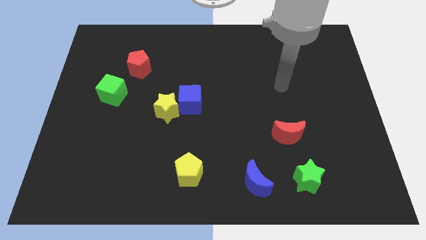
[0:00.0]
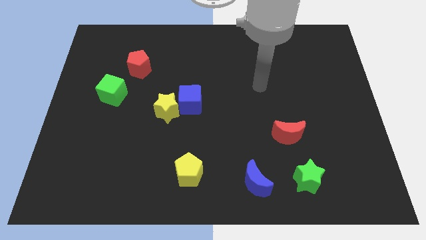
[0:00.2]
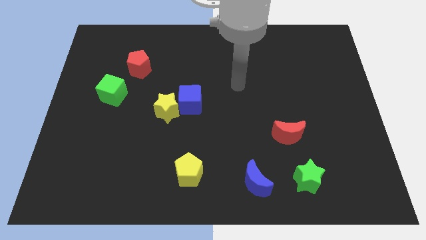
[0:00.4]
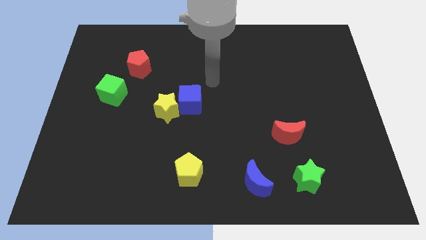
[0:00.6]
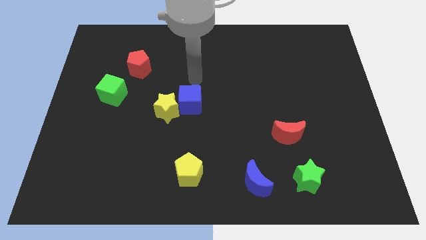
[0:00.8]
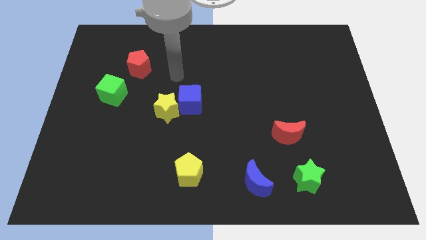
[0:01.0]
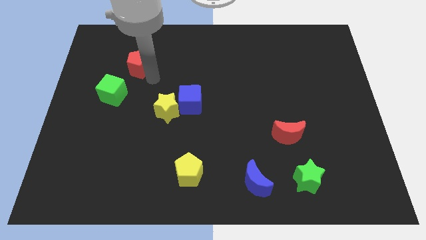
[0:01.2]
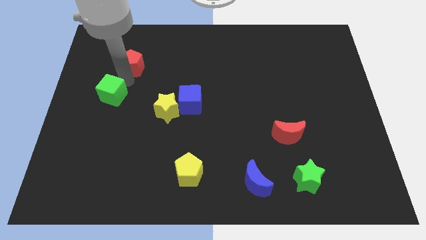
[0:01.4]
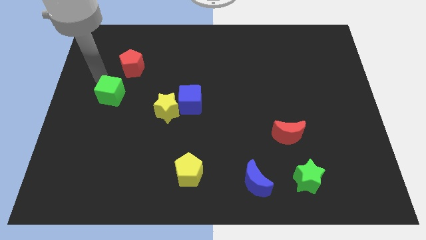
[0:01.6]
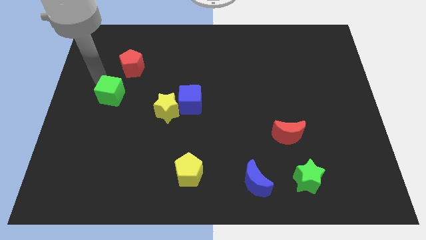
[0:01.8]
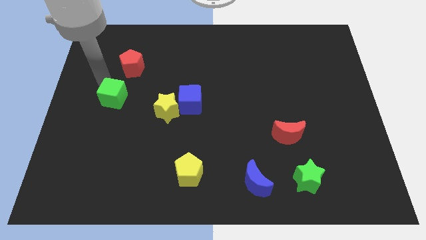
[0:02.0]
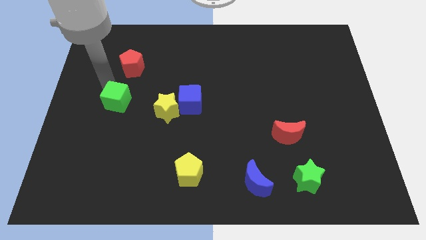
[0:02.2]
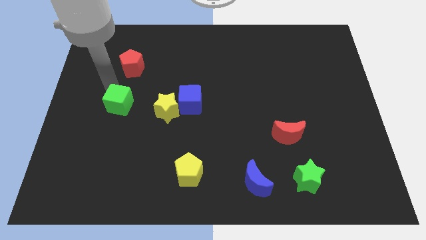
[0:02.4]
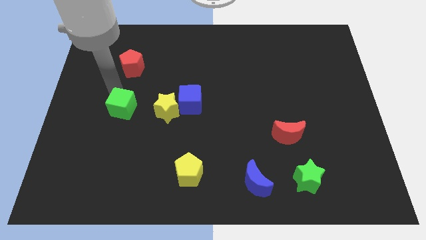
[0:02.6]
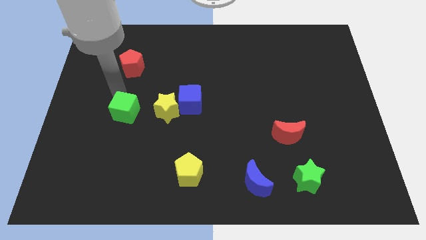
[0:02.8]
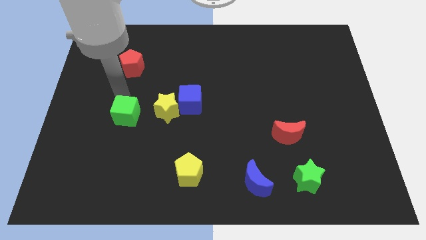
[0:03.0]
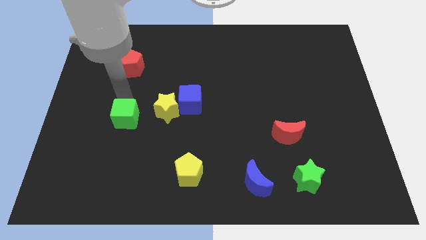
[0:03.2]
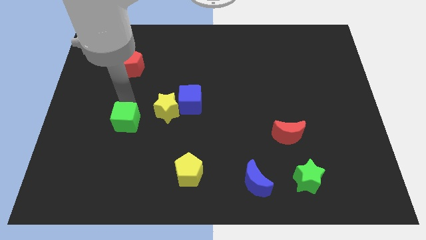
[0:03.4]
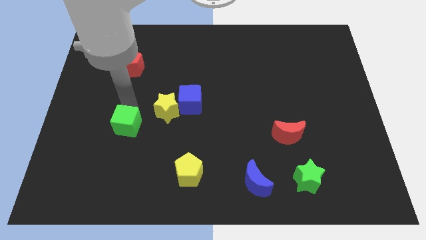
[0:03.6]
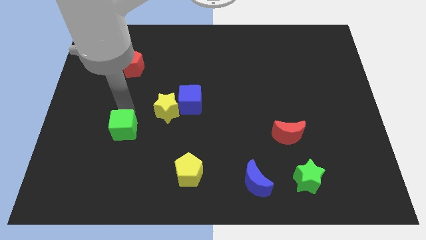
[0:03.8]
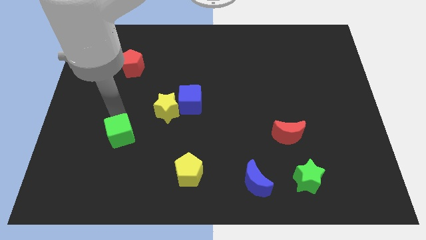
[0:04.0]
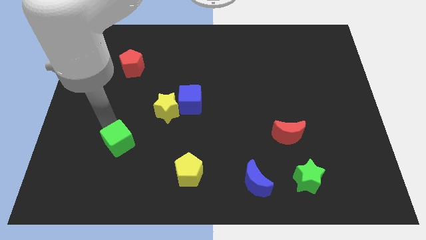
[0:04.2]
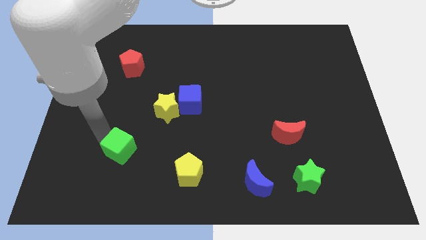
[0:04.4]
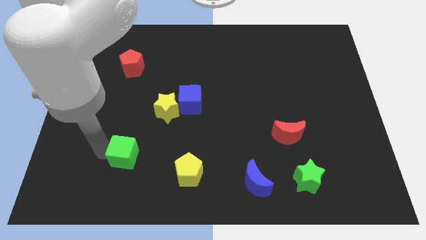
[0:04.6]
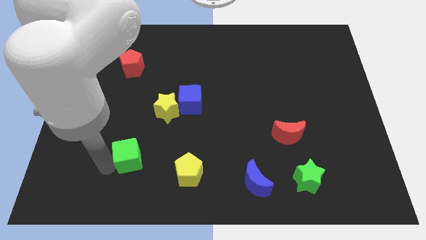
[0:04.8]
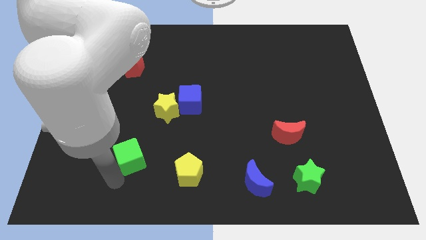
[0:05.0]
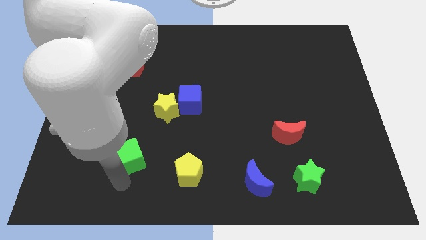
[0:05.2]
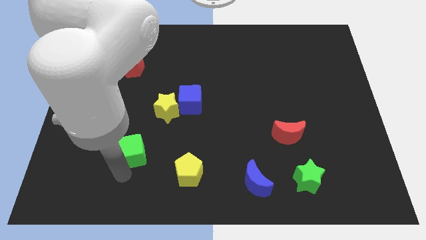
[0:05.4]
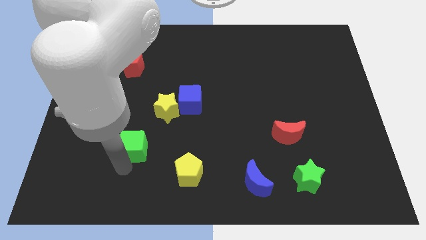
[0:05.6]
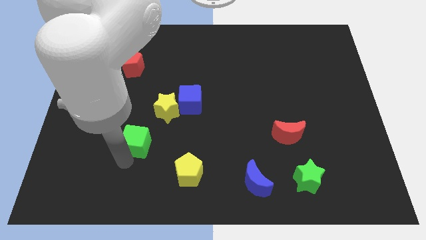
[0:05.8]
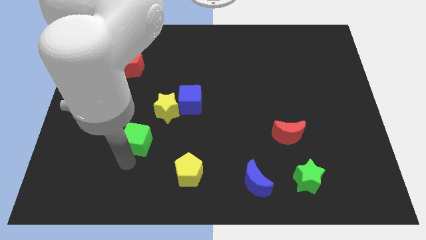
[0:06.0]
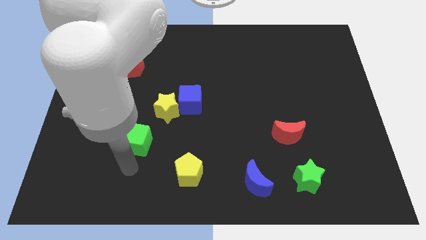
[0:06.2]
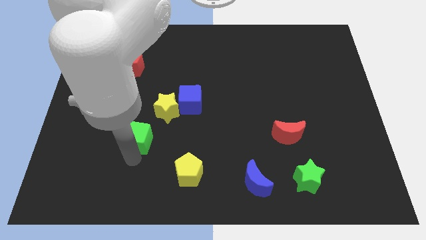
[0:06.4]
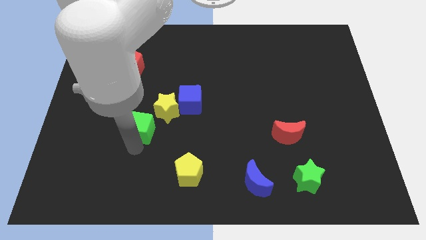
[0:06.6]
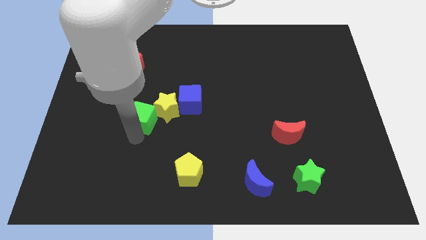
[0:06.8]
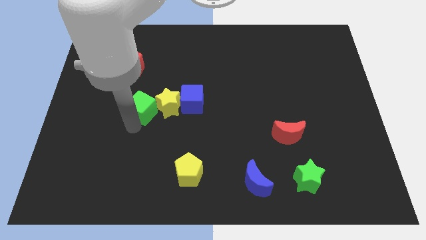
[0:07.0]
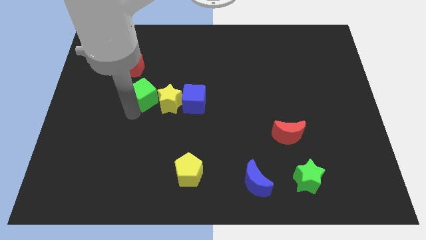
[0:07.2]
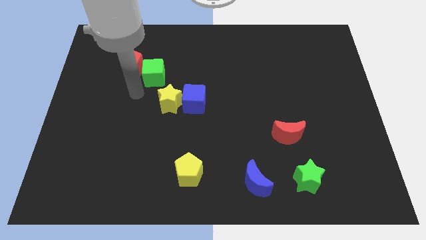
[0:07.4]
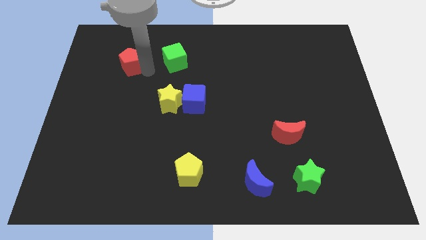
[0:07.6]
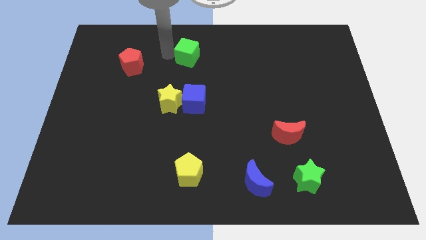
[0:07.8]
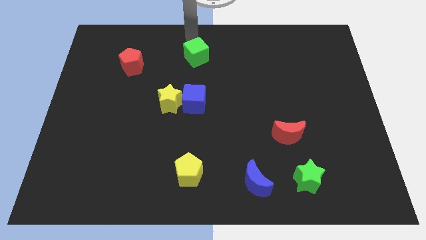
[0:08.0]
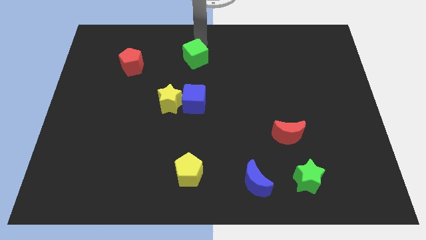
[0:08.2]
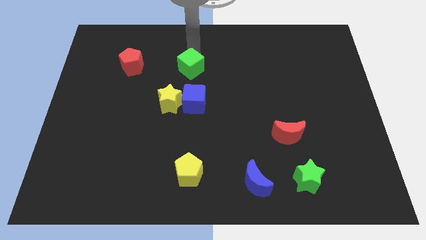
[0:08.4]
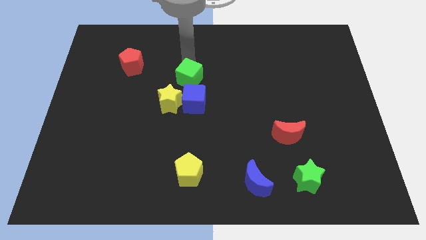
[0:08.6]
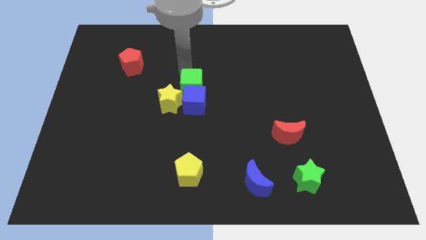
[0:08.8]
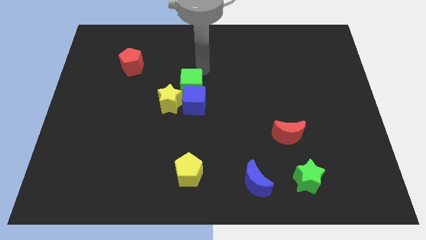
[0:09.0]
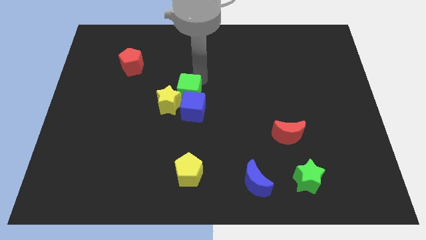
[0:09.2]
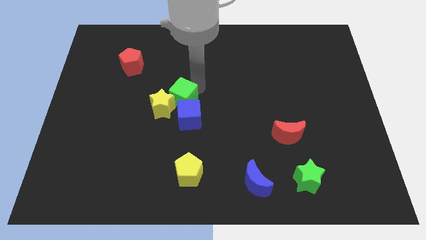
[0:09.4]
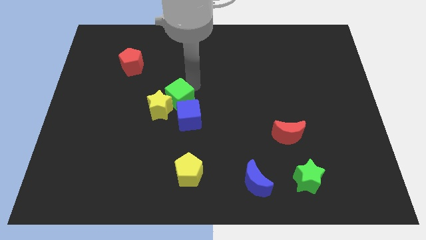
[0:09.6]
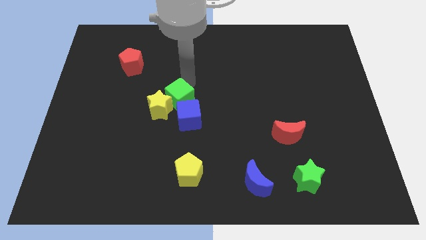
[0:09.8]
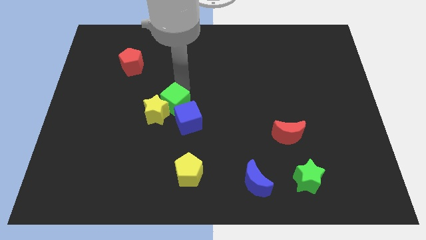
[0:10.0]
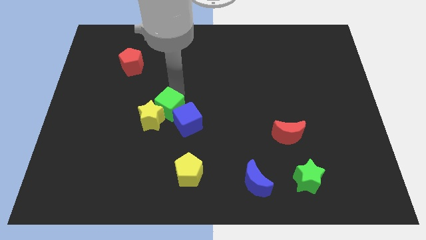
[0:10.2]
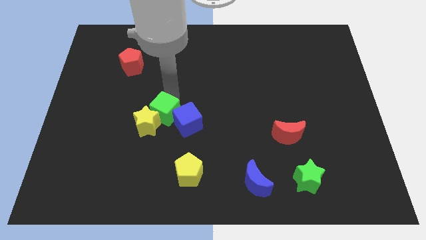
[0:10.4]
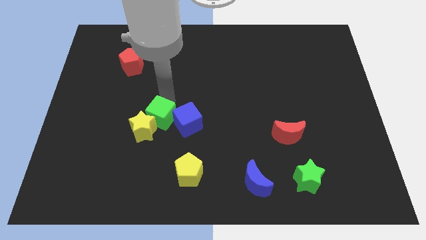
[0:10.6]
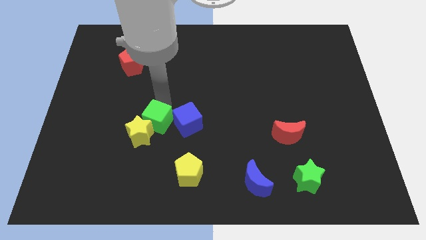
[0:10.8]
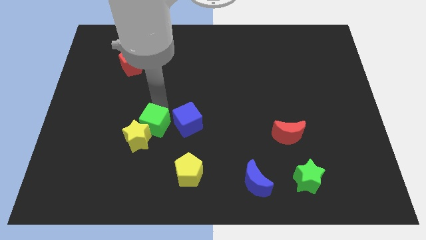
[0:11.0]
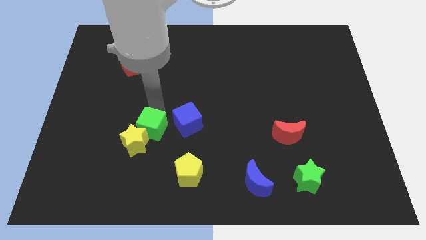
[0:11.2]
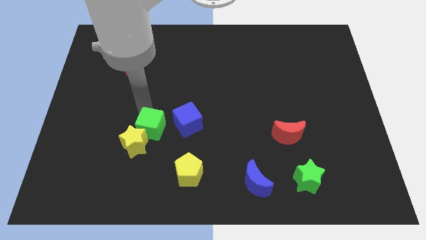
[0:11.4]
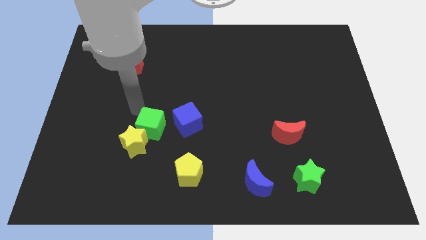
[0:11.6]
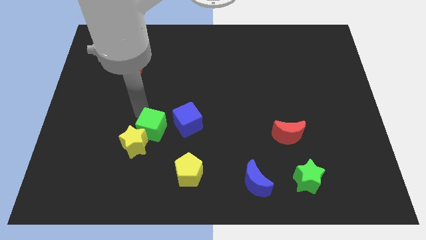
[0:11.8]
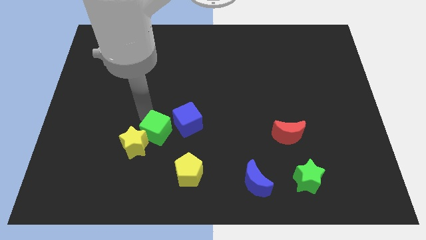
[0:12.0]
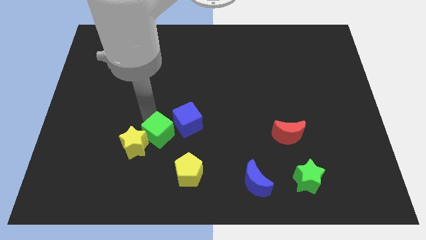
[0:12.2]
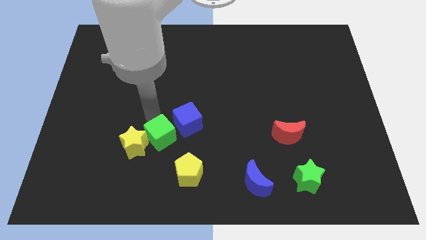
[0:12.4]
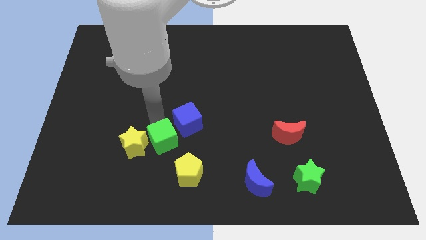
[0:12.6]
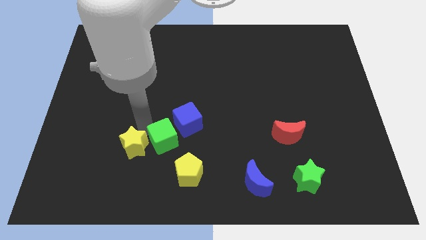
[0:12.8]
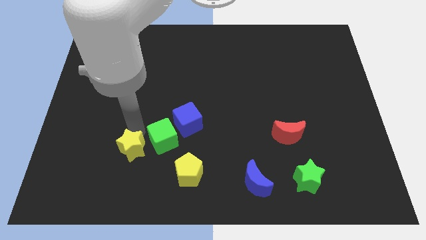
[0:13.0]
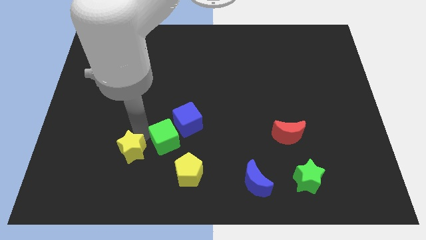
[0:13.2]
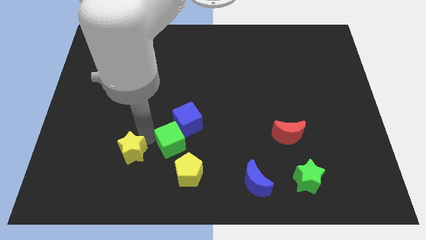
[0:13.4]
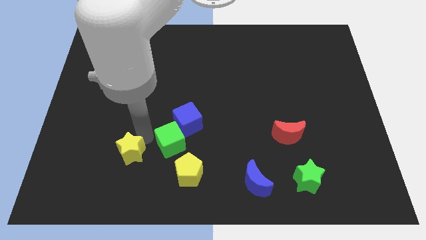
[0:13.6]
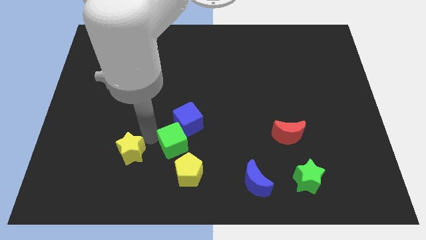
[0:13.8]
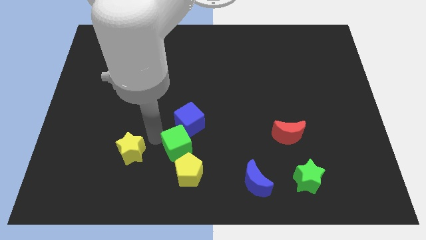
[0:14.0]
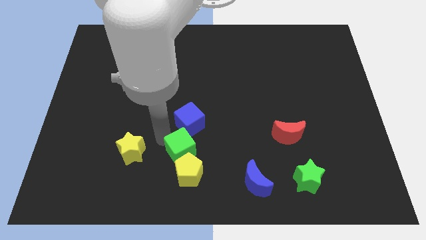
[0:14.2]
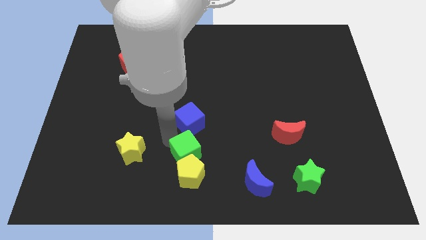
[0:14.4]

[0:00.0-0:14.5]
move the green cube to the top right side of the yellow pentagon
